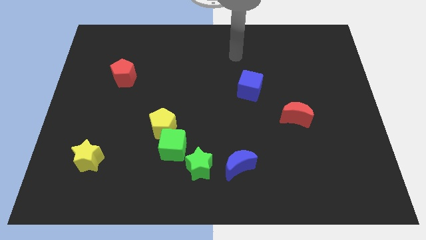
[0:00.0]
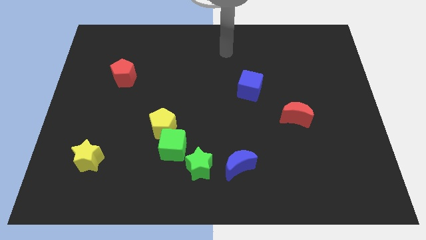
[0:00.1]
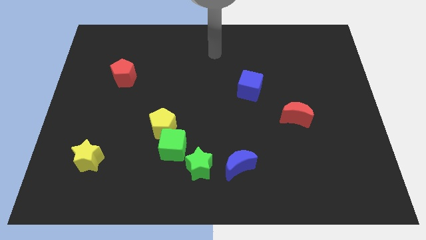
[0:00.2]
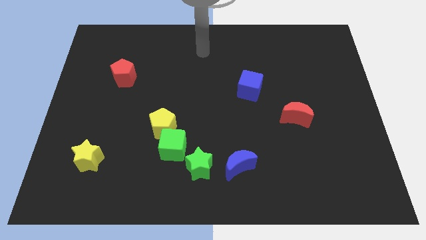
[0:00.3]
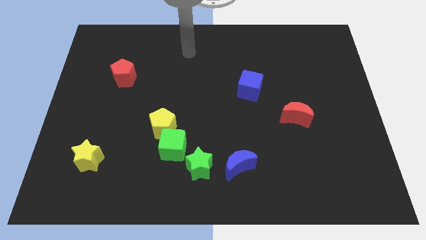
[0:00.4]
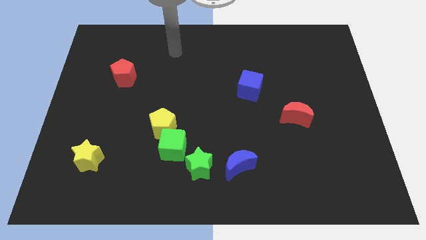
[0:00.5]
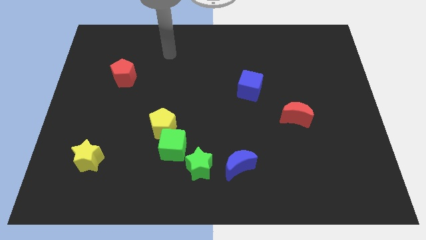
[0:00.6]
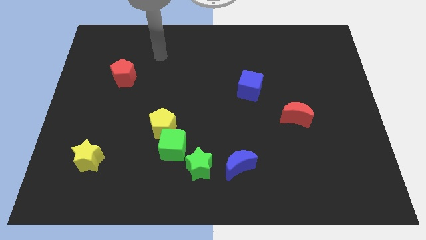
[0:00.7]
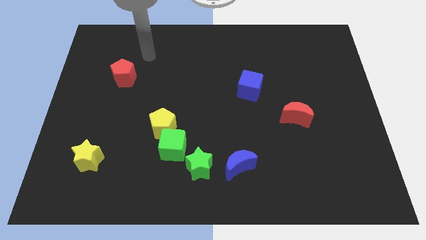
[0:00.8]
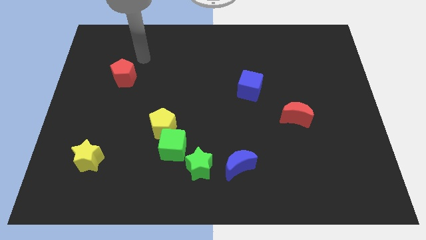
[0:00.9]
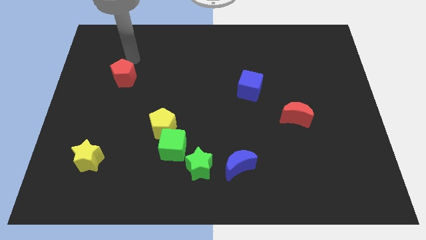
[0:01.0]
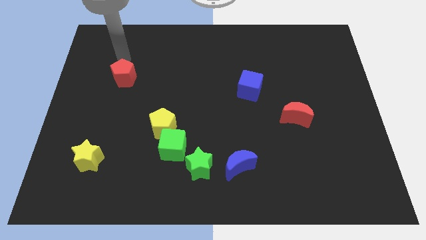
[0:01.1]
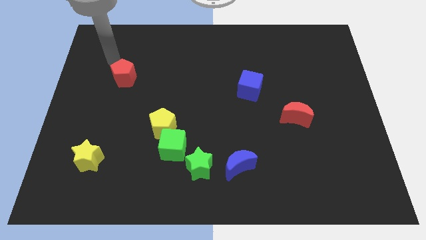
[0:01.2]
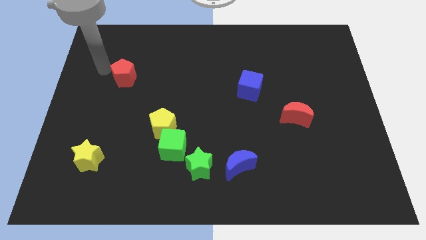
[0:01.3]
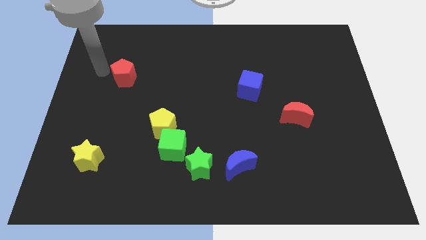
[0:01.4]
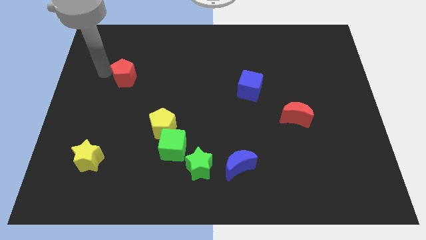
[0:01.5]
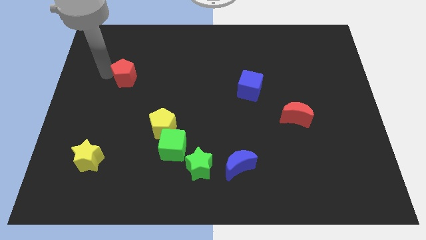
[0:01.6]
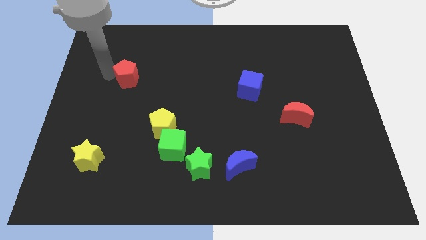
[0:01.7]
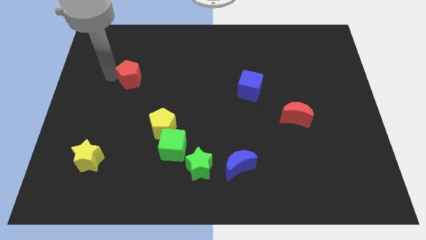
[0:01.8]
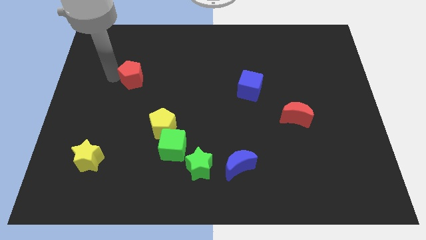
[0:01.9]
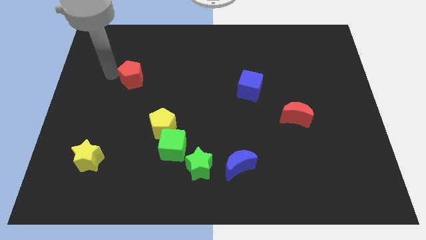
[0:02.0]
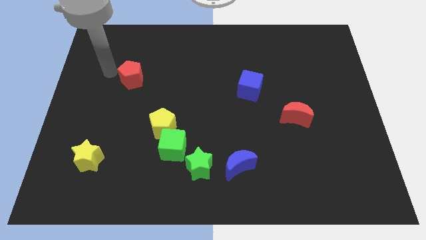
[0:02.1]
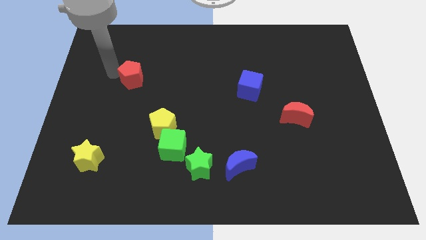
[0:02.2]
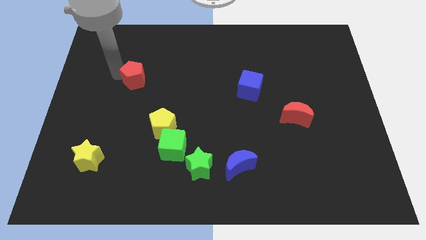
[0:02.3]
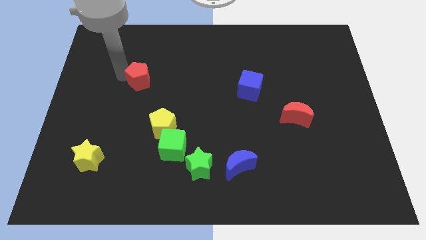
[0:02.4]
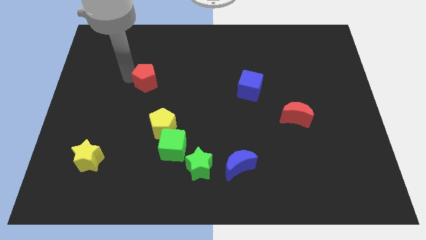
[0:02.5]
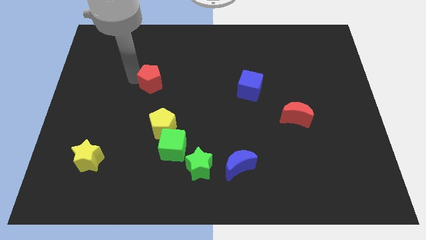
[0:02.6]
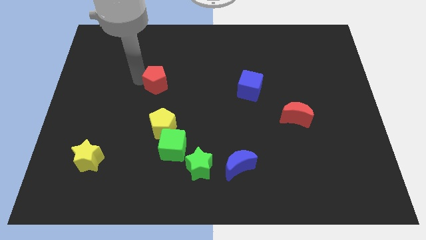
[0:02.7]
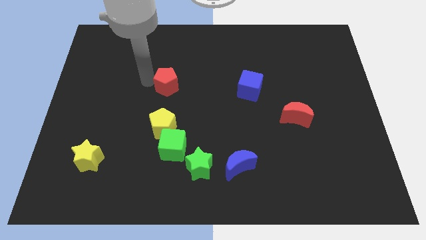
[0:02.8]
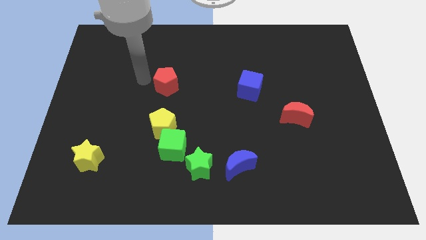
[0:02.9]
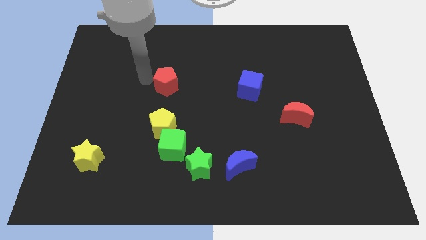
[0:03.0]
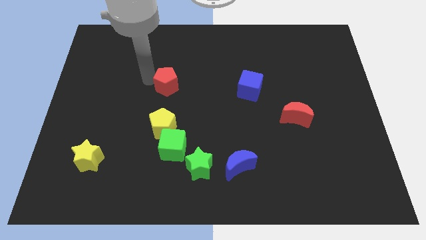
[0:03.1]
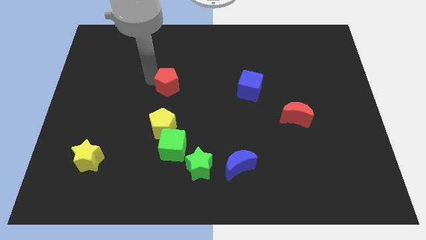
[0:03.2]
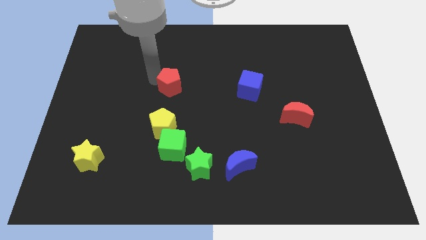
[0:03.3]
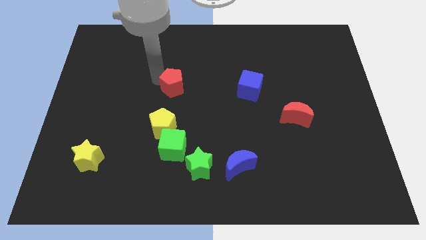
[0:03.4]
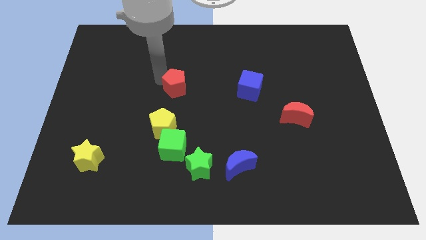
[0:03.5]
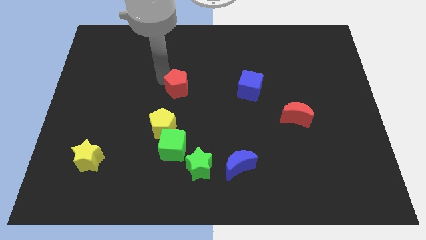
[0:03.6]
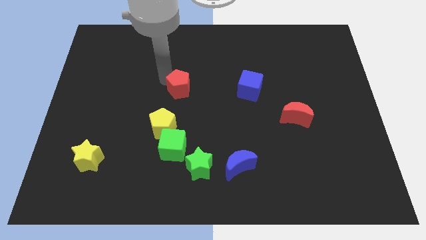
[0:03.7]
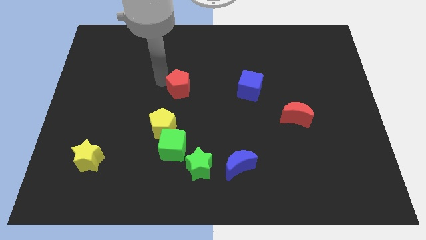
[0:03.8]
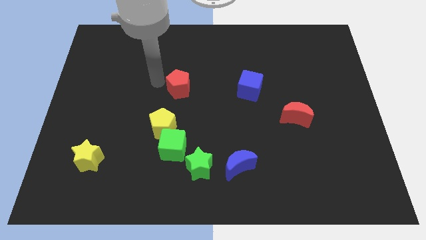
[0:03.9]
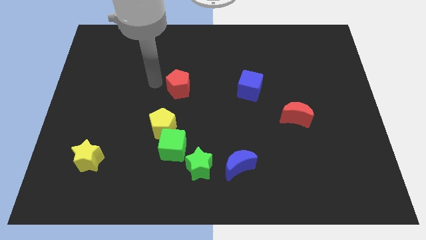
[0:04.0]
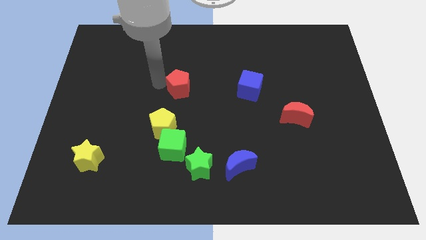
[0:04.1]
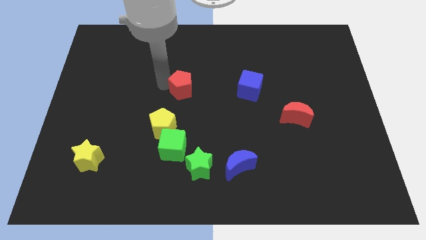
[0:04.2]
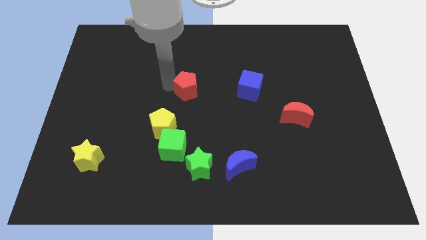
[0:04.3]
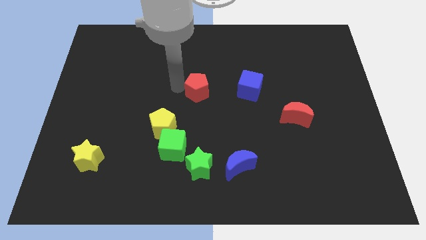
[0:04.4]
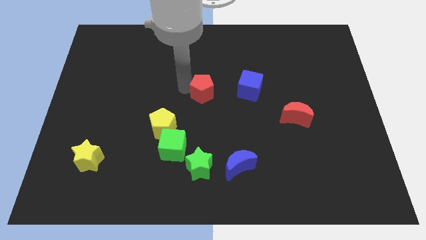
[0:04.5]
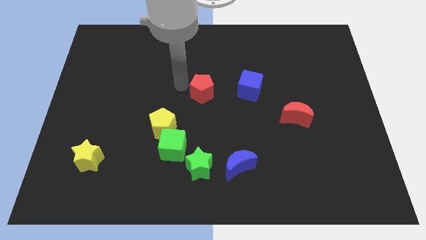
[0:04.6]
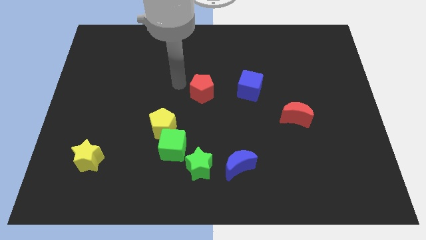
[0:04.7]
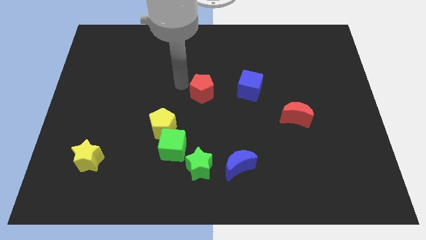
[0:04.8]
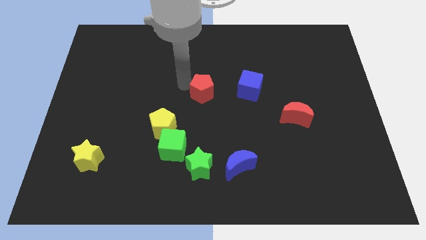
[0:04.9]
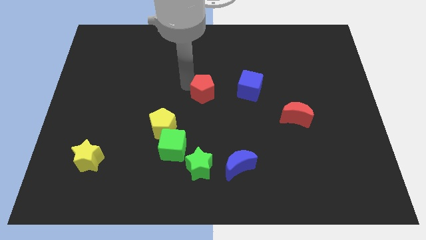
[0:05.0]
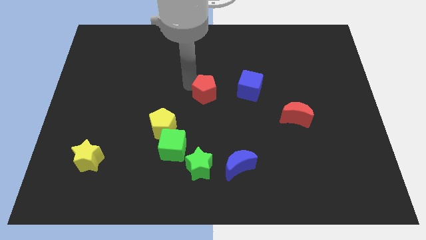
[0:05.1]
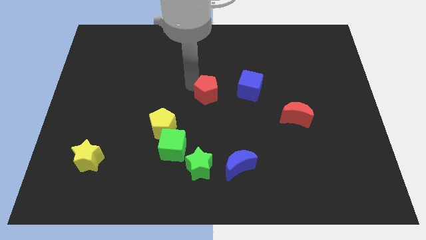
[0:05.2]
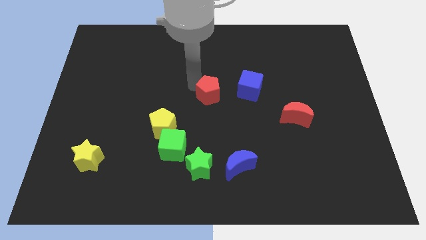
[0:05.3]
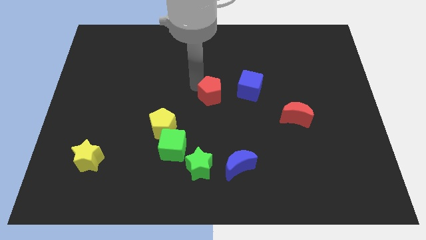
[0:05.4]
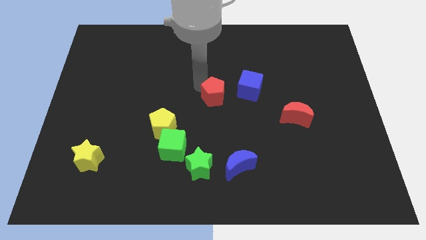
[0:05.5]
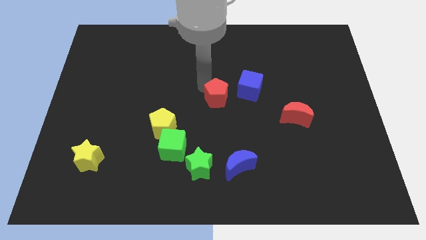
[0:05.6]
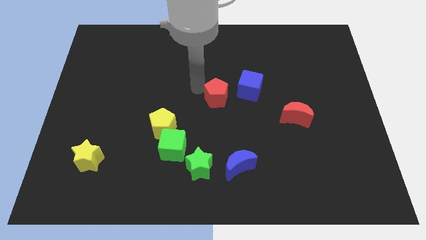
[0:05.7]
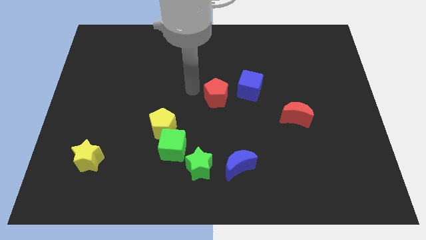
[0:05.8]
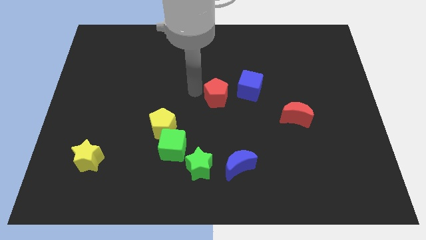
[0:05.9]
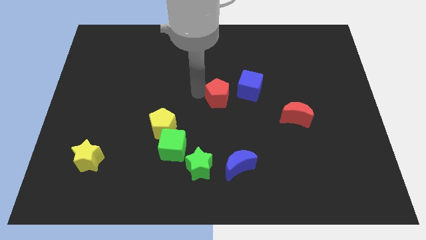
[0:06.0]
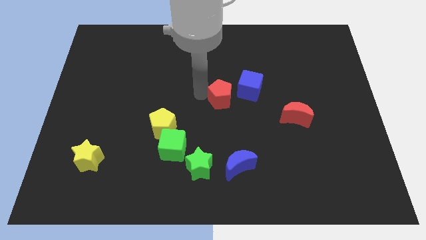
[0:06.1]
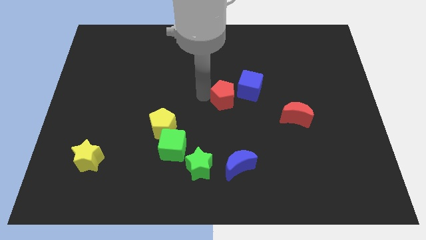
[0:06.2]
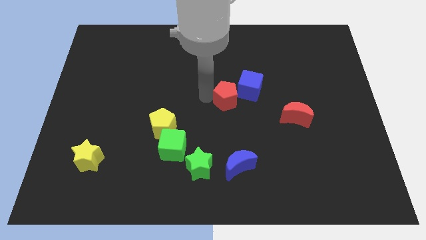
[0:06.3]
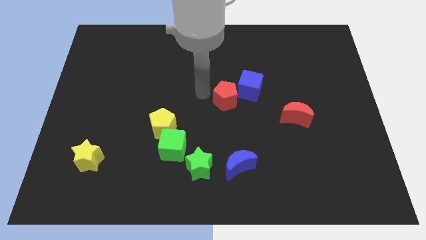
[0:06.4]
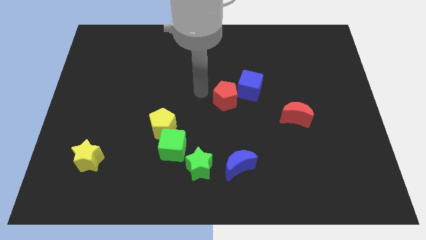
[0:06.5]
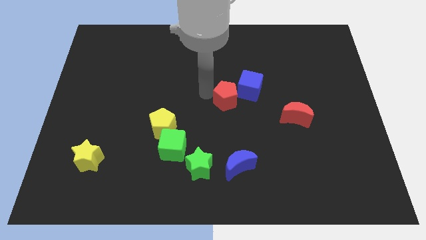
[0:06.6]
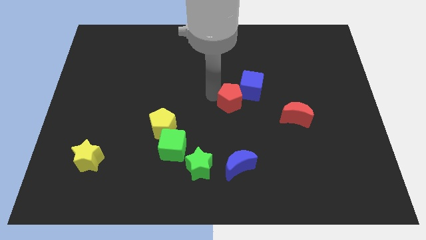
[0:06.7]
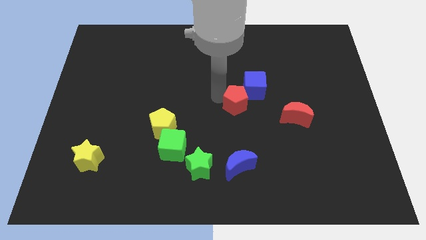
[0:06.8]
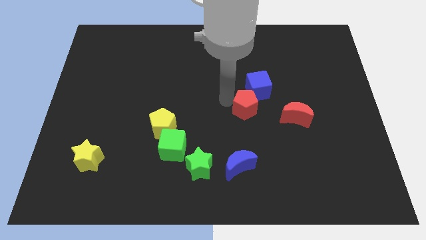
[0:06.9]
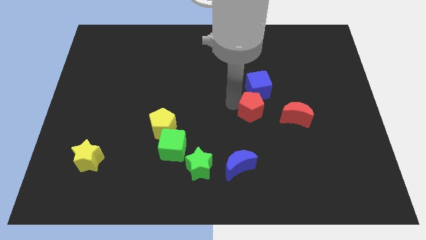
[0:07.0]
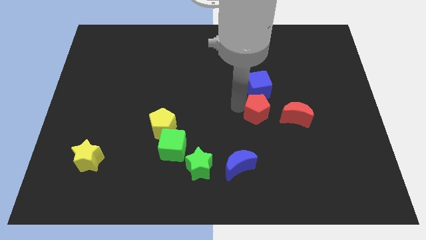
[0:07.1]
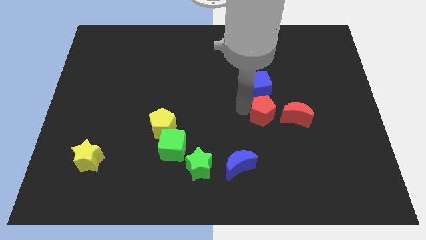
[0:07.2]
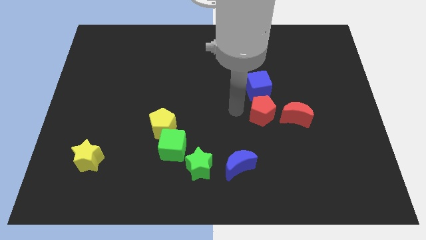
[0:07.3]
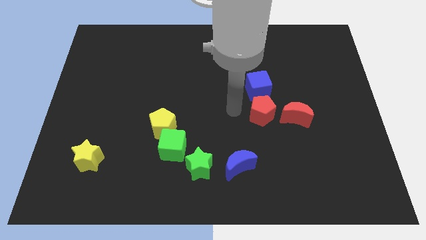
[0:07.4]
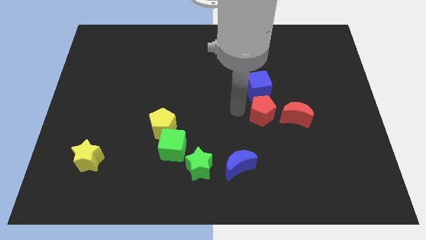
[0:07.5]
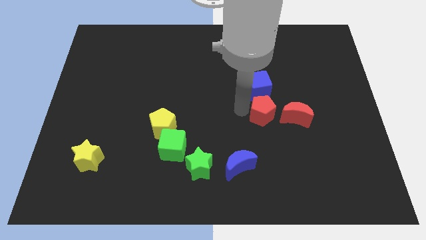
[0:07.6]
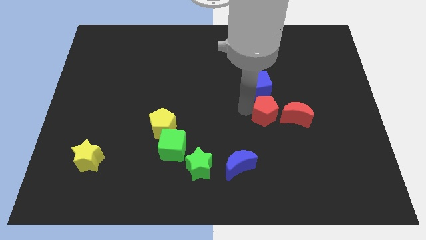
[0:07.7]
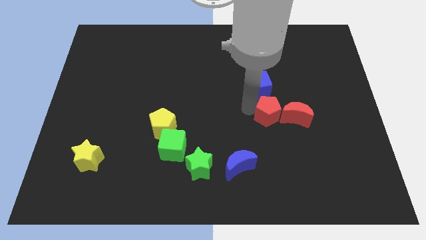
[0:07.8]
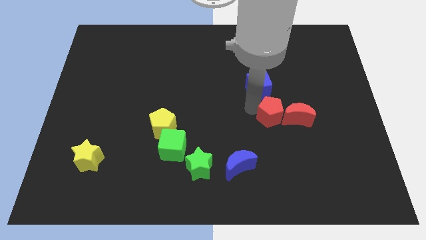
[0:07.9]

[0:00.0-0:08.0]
push the red pentagon towards the red moon
